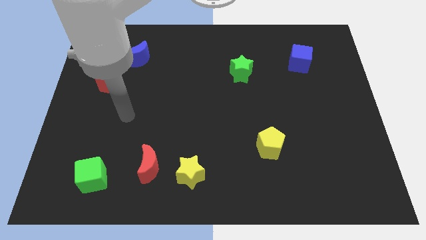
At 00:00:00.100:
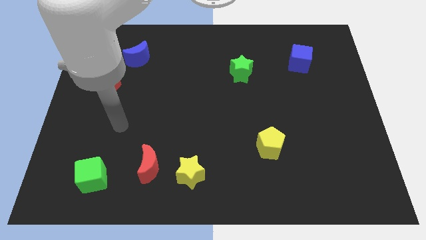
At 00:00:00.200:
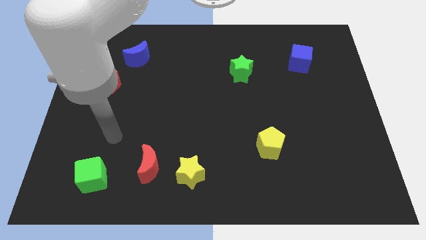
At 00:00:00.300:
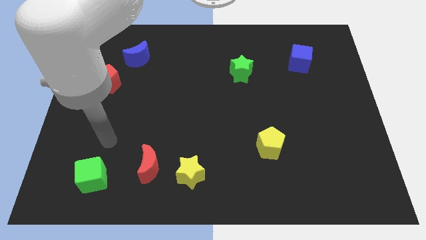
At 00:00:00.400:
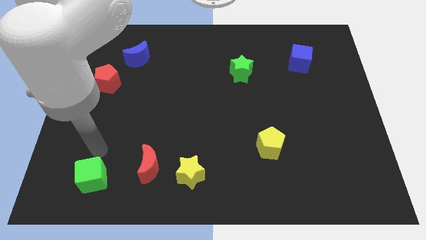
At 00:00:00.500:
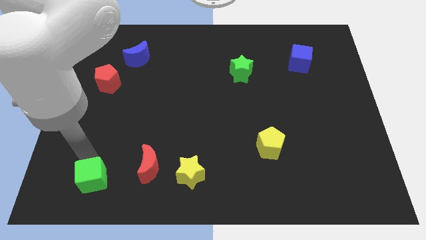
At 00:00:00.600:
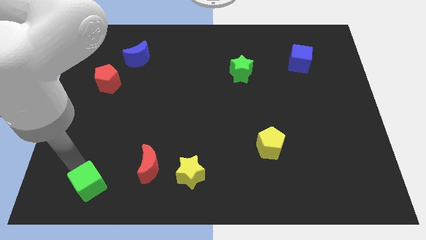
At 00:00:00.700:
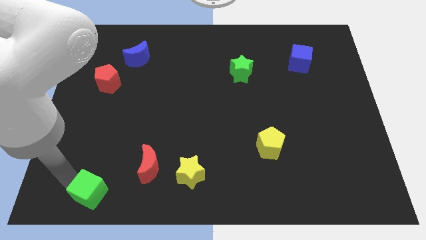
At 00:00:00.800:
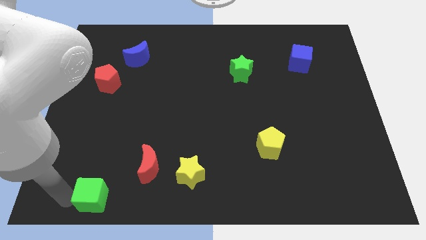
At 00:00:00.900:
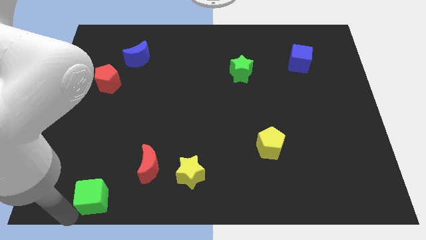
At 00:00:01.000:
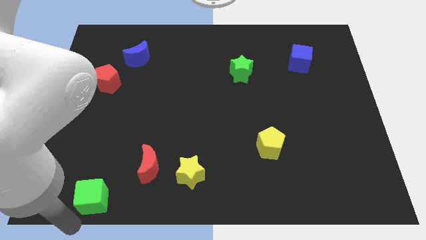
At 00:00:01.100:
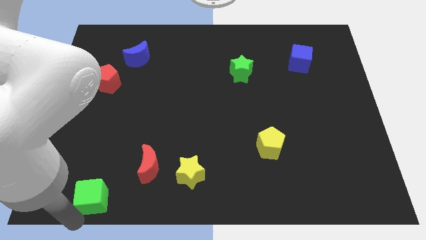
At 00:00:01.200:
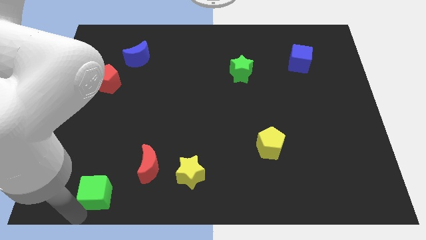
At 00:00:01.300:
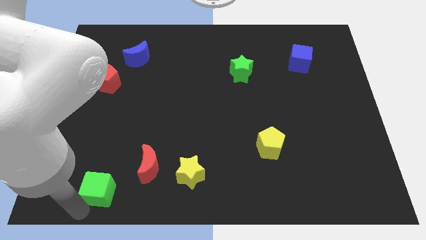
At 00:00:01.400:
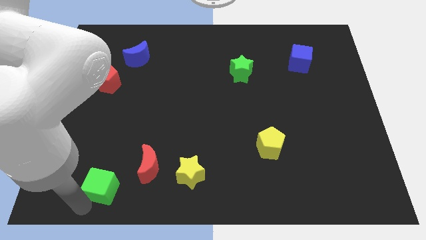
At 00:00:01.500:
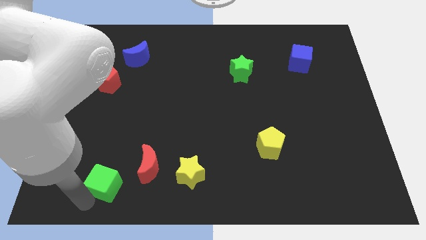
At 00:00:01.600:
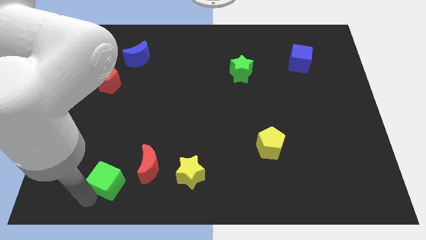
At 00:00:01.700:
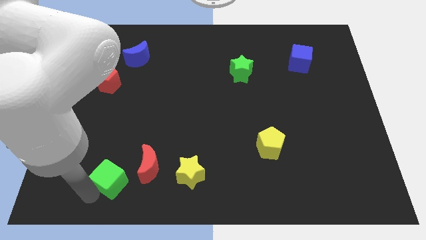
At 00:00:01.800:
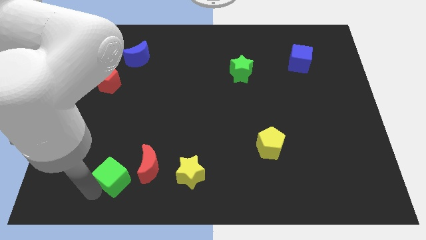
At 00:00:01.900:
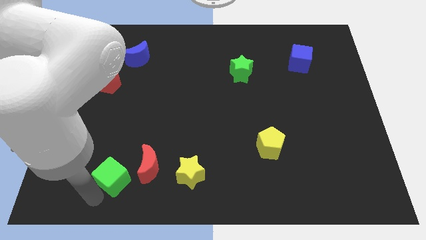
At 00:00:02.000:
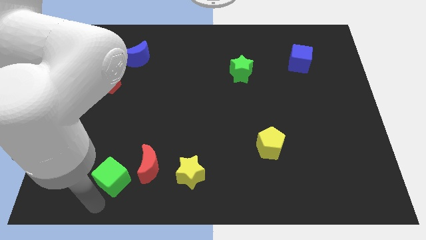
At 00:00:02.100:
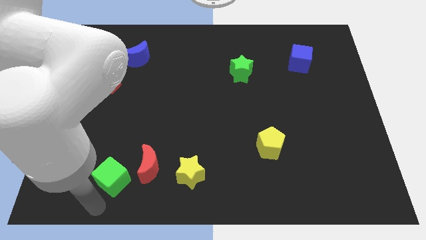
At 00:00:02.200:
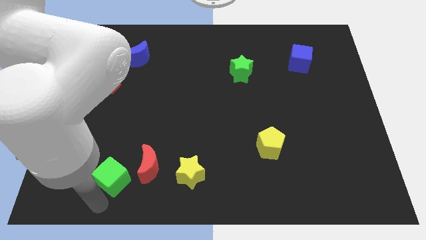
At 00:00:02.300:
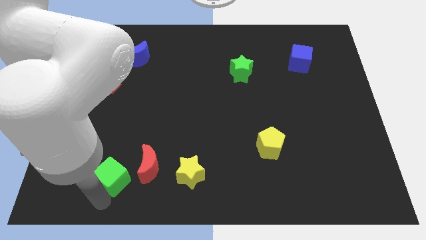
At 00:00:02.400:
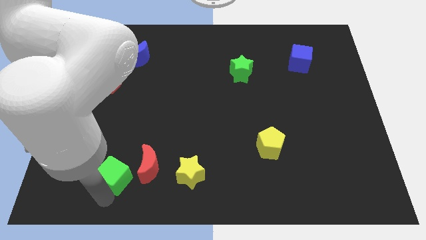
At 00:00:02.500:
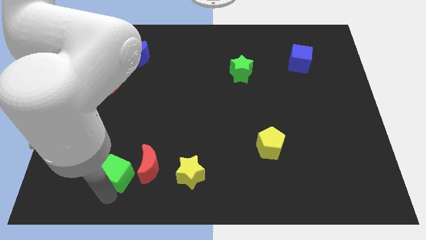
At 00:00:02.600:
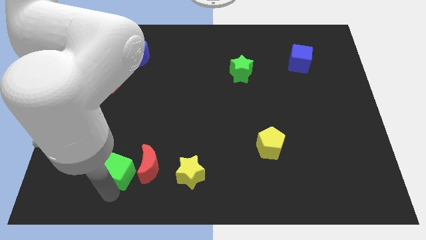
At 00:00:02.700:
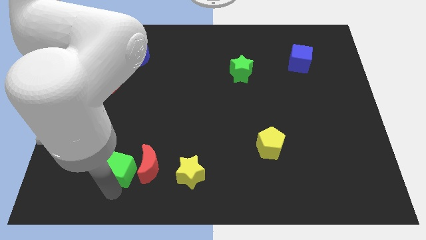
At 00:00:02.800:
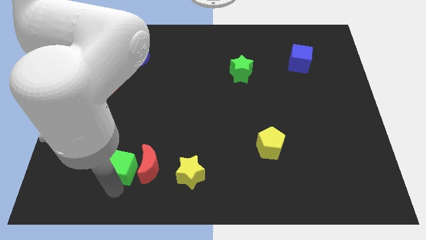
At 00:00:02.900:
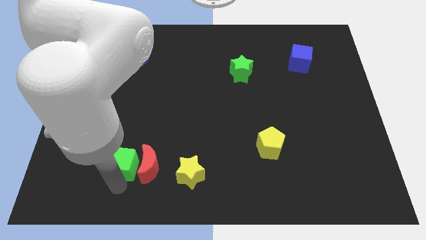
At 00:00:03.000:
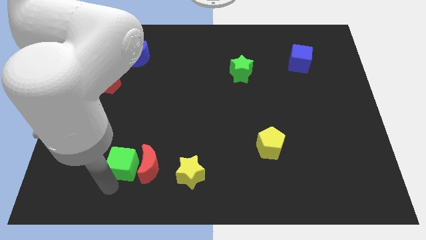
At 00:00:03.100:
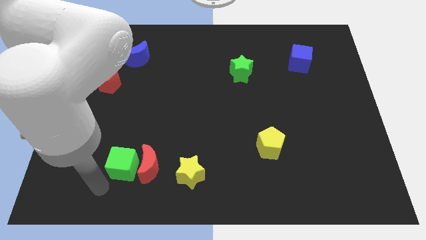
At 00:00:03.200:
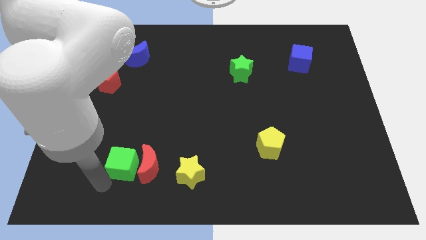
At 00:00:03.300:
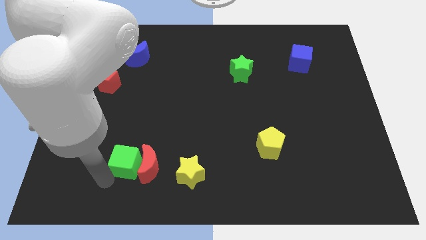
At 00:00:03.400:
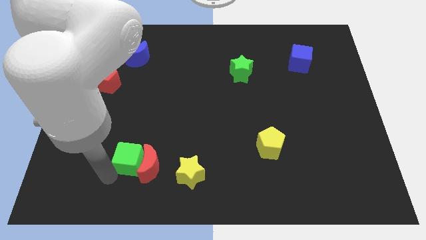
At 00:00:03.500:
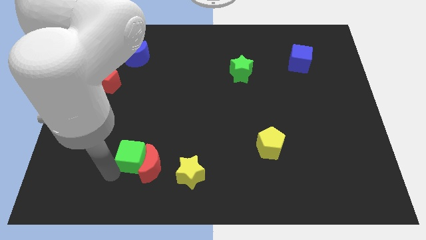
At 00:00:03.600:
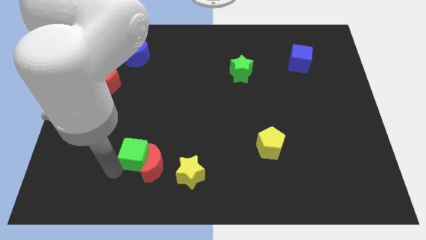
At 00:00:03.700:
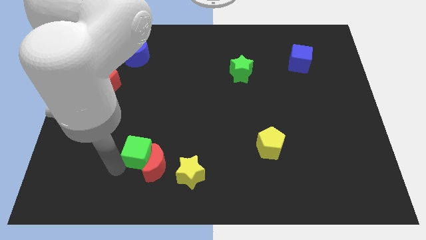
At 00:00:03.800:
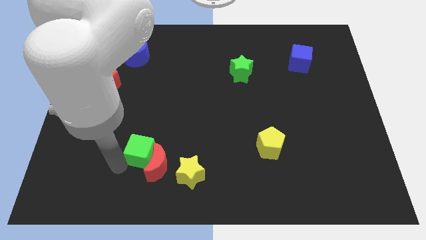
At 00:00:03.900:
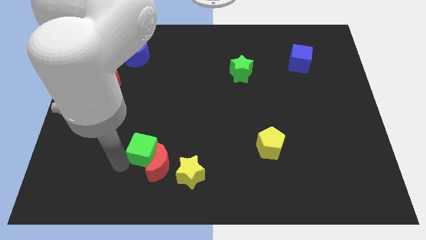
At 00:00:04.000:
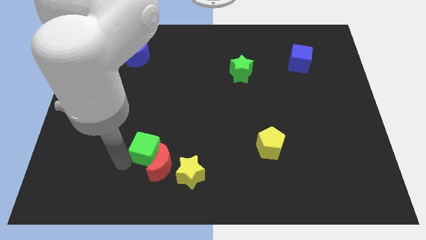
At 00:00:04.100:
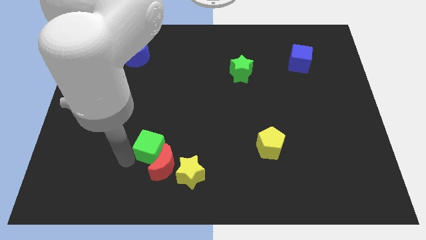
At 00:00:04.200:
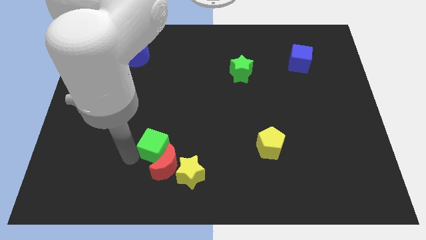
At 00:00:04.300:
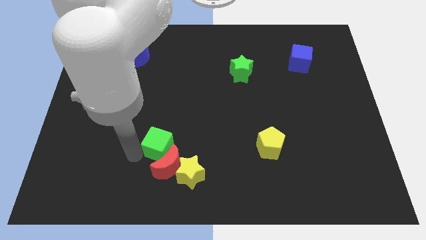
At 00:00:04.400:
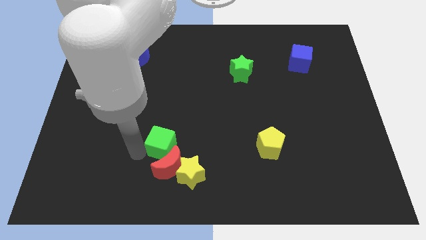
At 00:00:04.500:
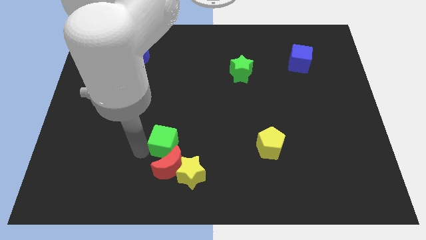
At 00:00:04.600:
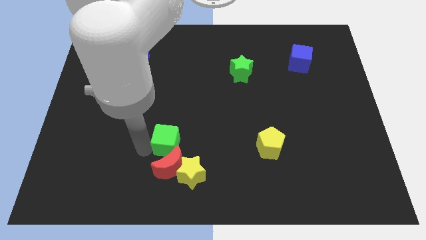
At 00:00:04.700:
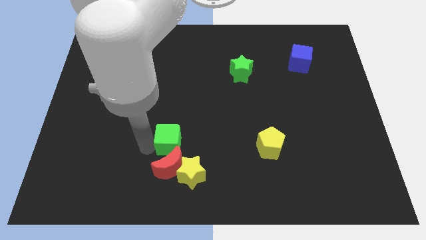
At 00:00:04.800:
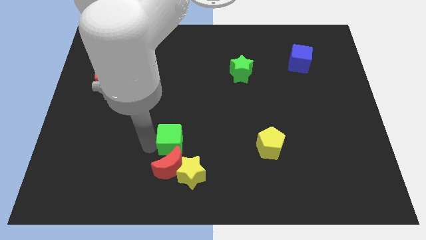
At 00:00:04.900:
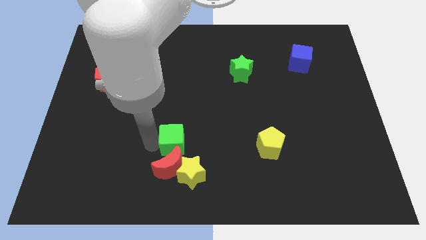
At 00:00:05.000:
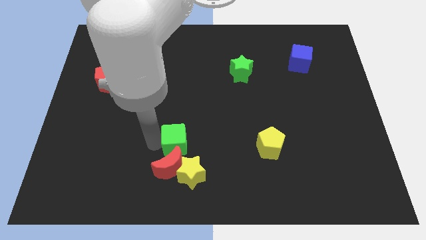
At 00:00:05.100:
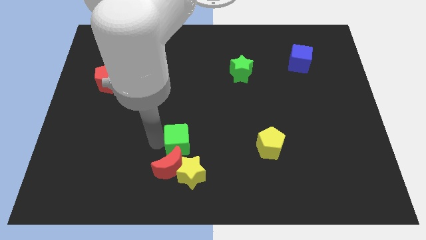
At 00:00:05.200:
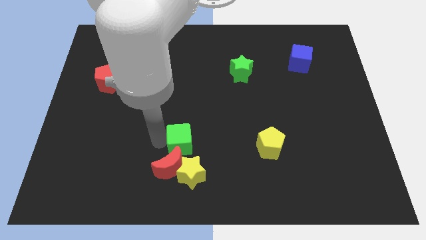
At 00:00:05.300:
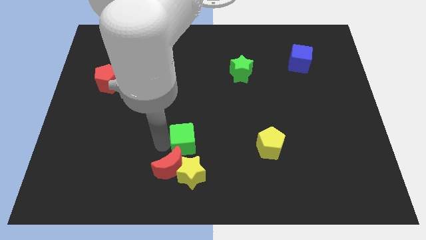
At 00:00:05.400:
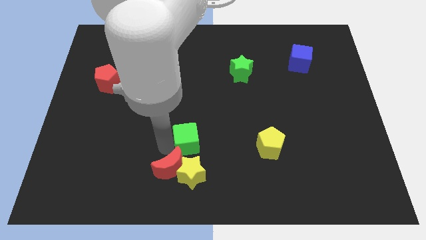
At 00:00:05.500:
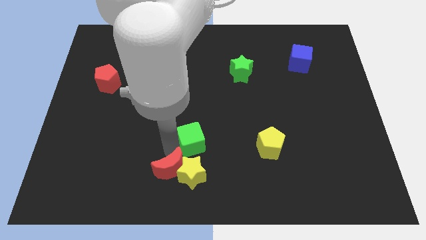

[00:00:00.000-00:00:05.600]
move the green cube to the center of the board

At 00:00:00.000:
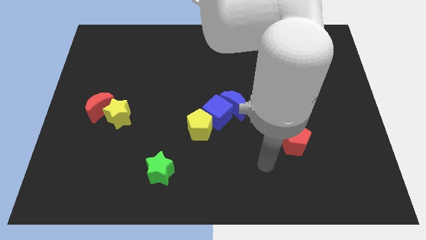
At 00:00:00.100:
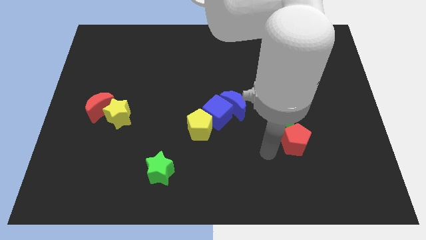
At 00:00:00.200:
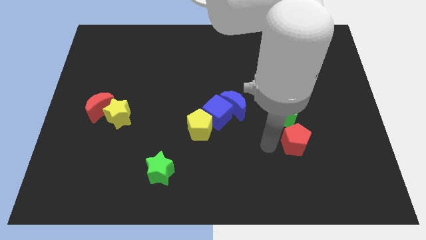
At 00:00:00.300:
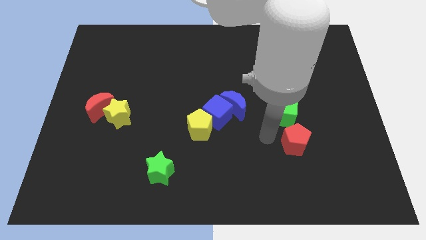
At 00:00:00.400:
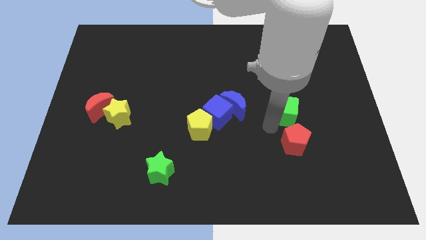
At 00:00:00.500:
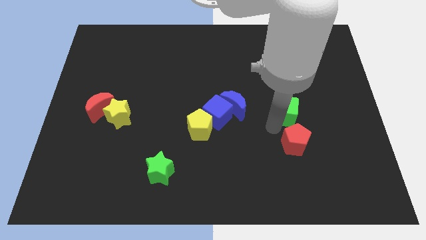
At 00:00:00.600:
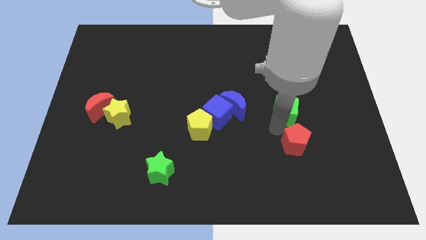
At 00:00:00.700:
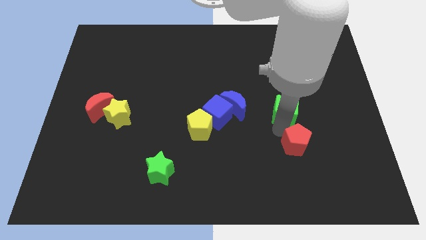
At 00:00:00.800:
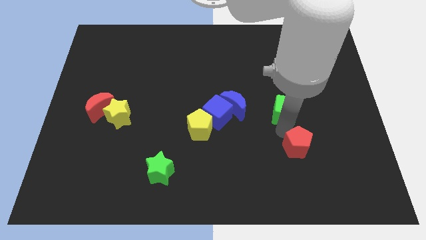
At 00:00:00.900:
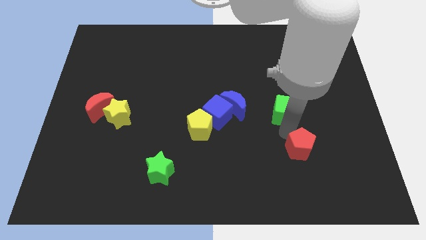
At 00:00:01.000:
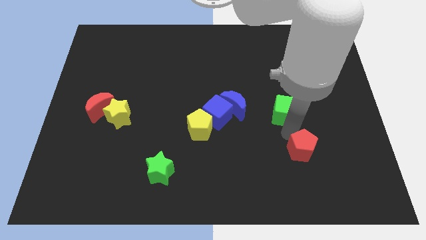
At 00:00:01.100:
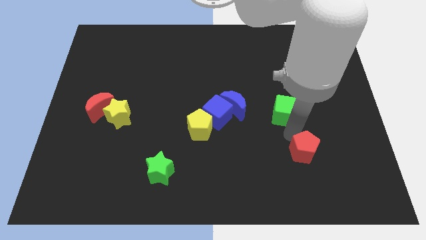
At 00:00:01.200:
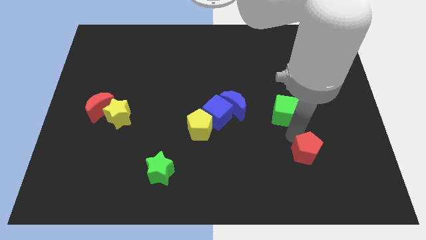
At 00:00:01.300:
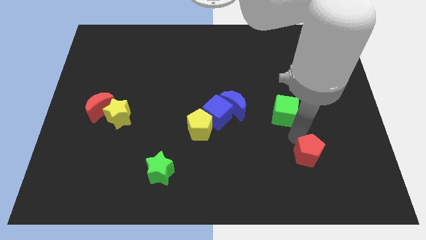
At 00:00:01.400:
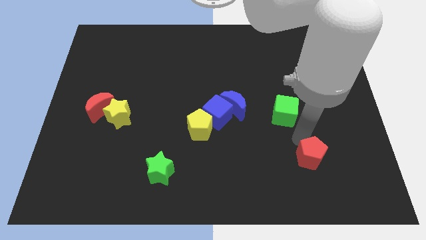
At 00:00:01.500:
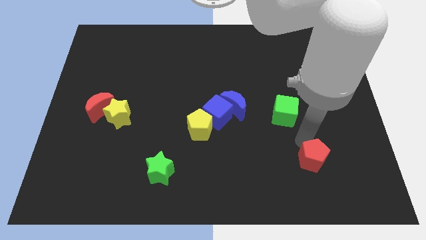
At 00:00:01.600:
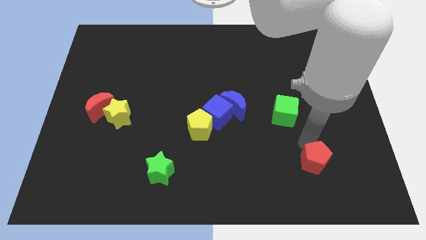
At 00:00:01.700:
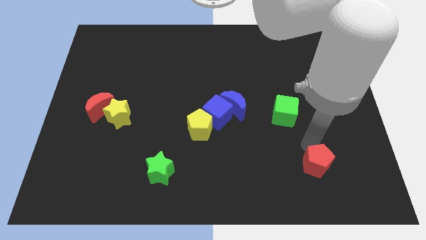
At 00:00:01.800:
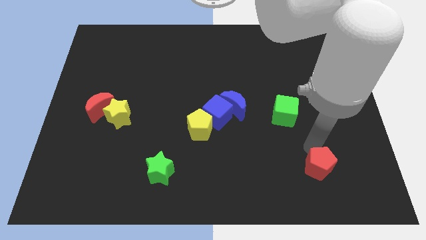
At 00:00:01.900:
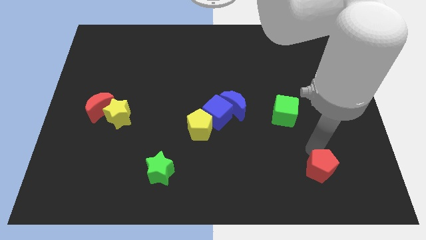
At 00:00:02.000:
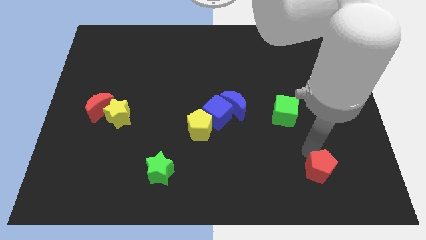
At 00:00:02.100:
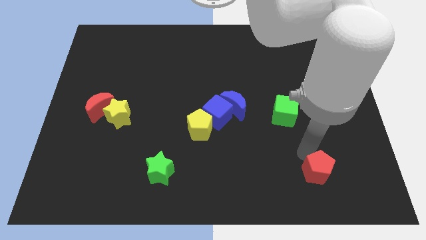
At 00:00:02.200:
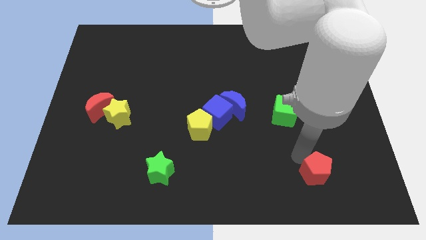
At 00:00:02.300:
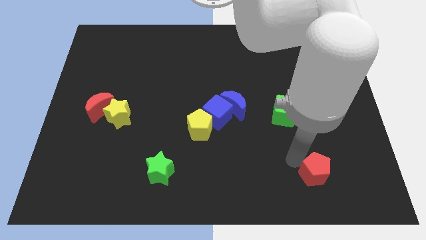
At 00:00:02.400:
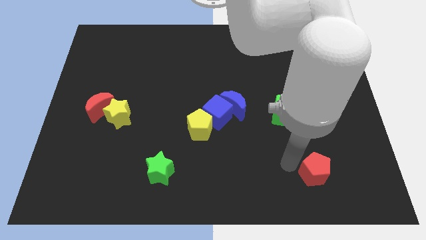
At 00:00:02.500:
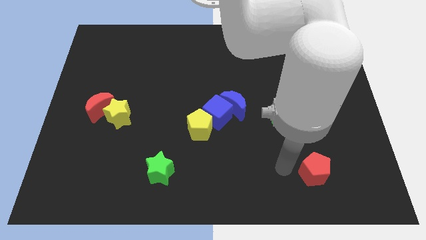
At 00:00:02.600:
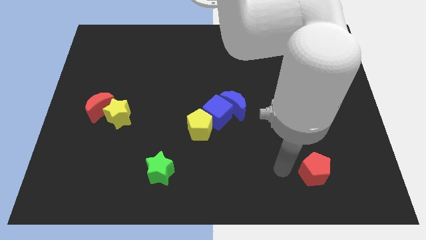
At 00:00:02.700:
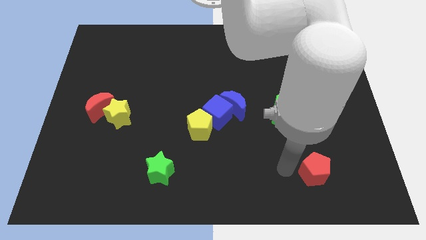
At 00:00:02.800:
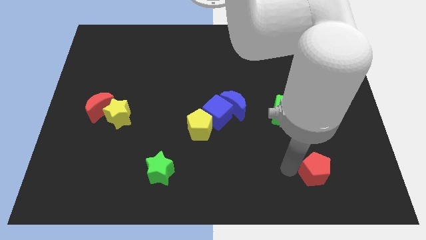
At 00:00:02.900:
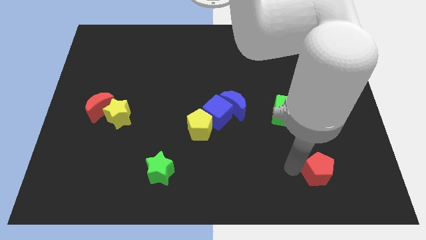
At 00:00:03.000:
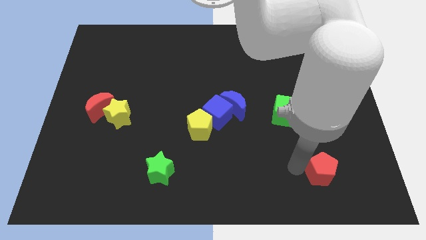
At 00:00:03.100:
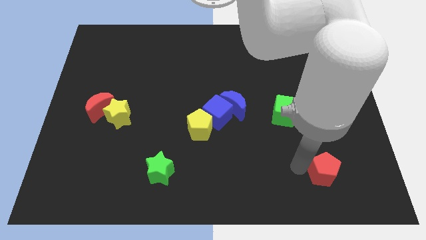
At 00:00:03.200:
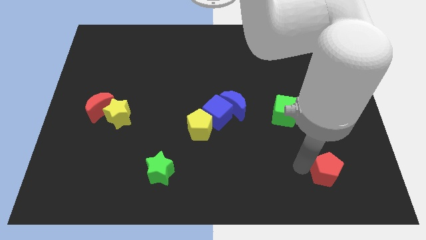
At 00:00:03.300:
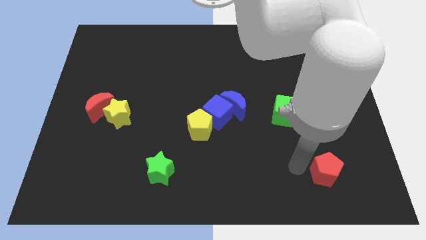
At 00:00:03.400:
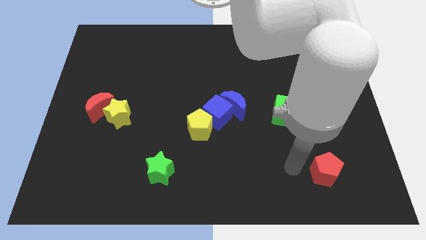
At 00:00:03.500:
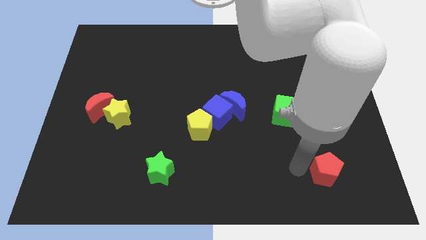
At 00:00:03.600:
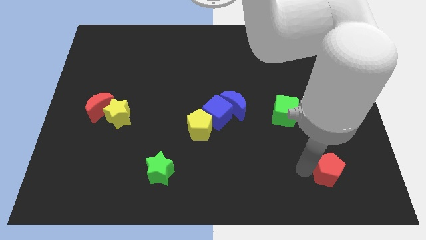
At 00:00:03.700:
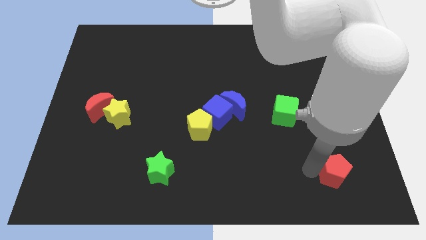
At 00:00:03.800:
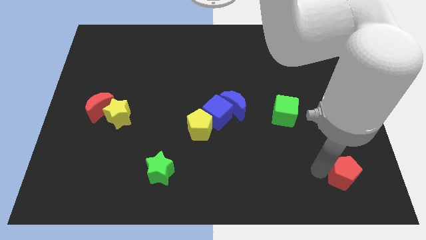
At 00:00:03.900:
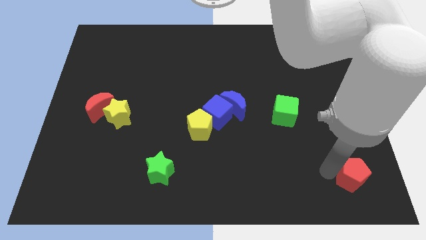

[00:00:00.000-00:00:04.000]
push the red pentagon to the bottom right
